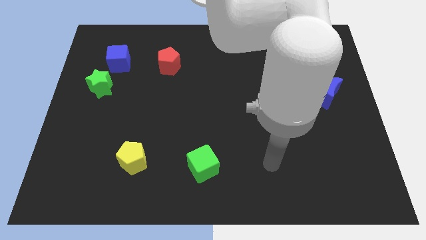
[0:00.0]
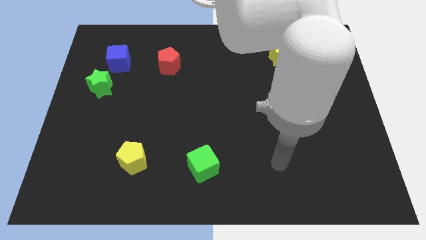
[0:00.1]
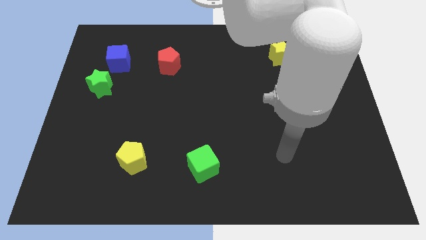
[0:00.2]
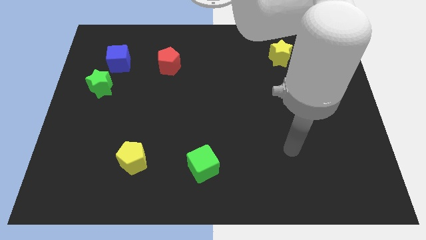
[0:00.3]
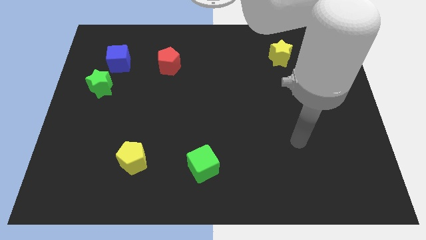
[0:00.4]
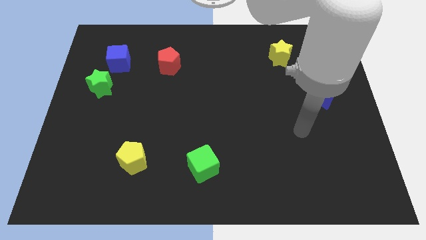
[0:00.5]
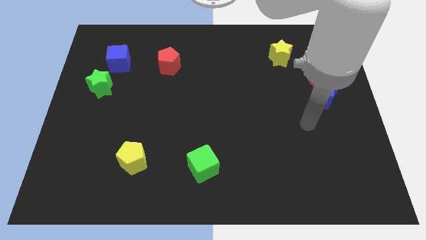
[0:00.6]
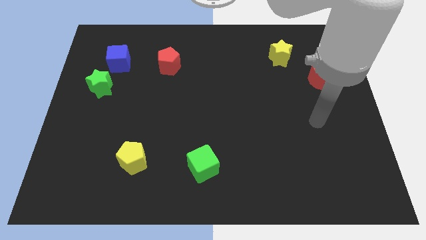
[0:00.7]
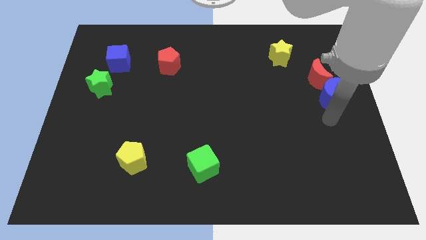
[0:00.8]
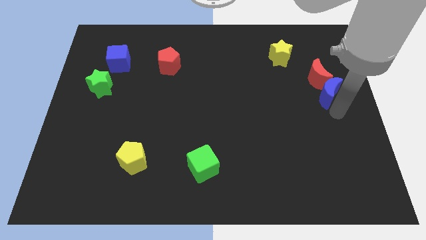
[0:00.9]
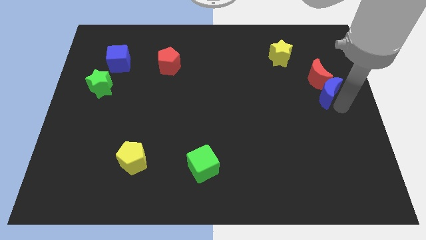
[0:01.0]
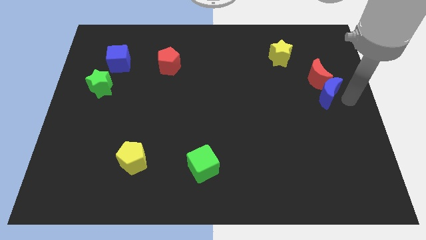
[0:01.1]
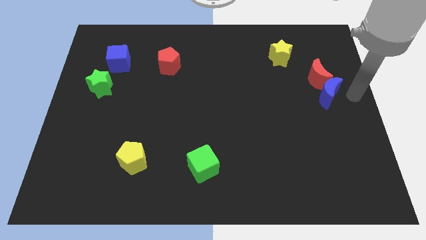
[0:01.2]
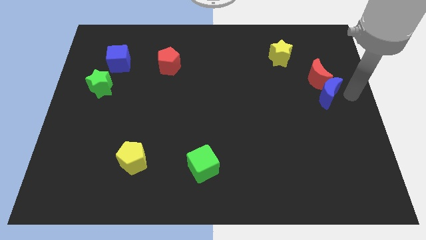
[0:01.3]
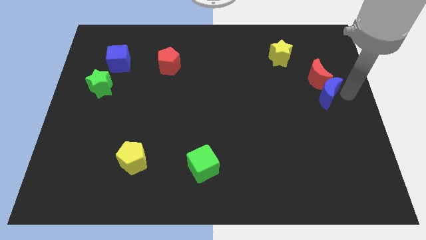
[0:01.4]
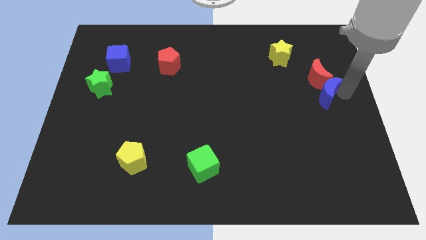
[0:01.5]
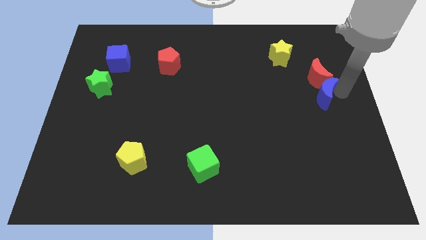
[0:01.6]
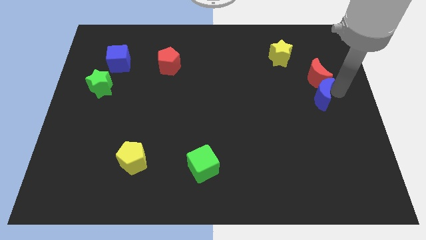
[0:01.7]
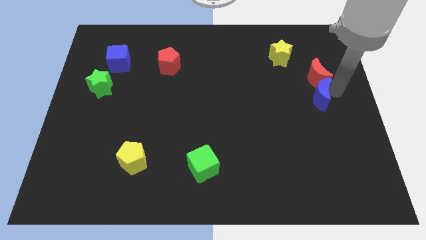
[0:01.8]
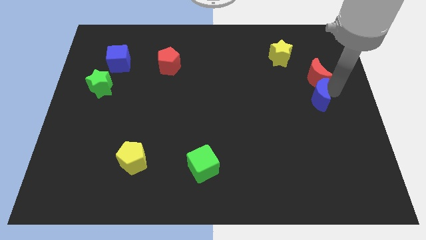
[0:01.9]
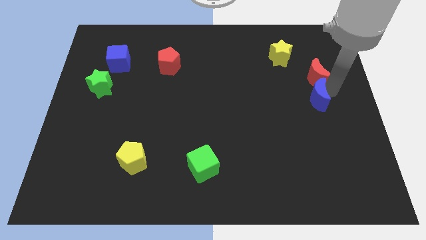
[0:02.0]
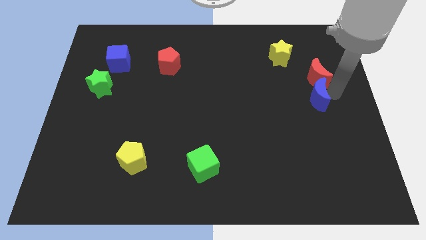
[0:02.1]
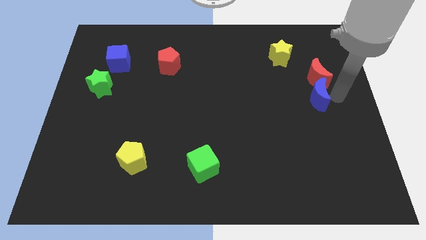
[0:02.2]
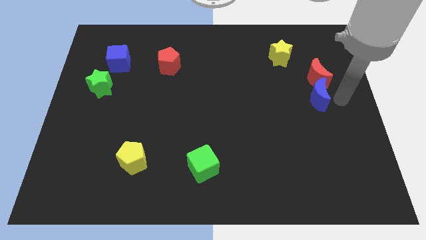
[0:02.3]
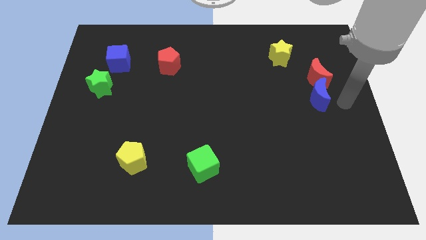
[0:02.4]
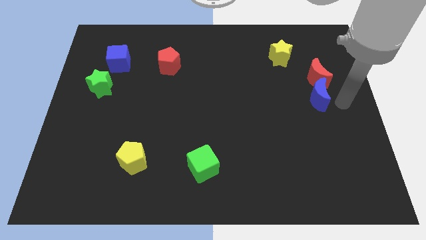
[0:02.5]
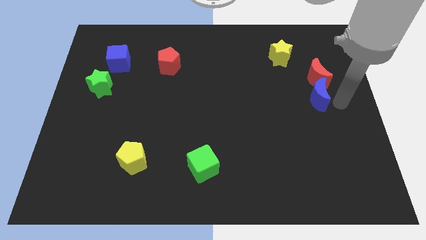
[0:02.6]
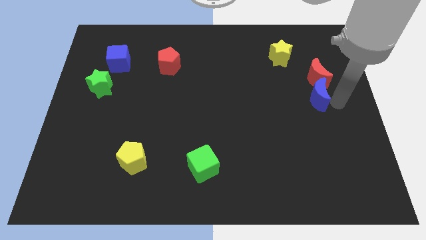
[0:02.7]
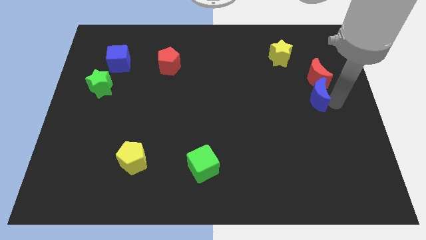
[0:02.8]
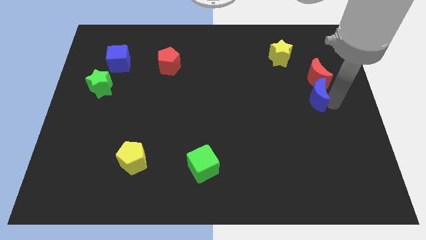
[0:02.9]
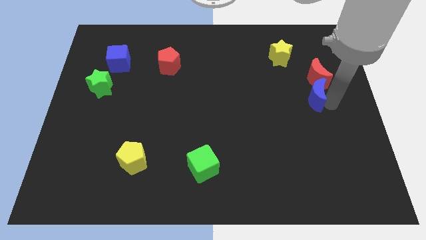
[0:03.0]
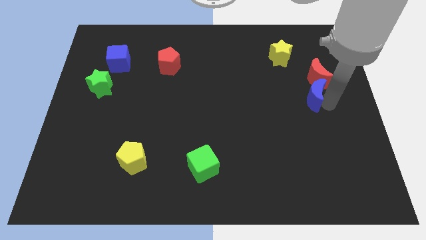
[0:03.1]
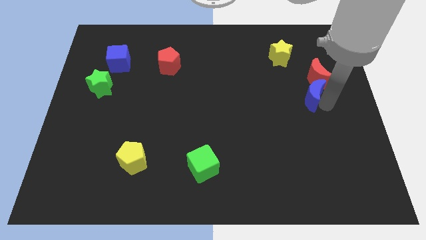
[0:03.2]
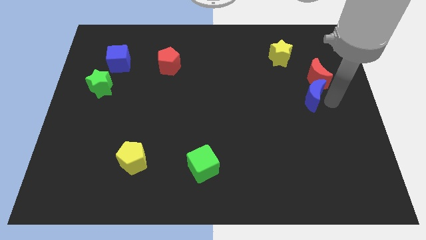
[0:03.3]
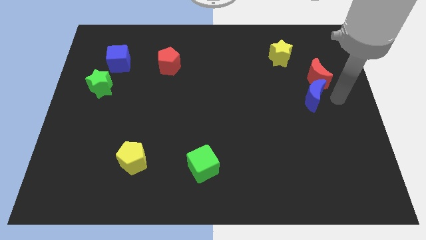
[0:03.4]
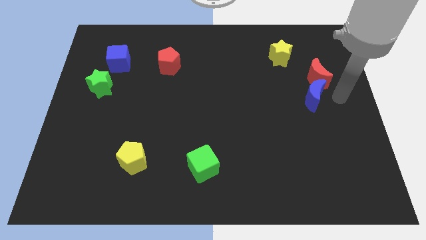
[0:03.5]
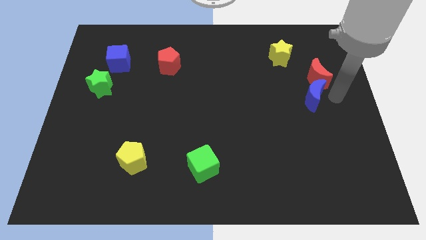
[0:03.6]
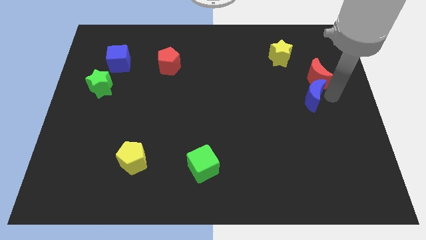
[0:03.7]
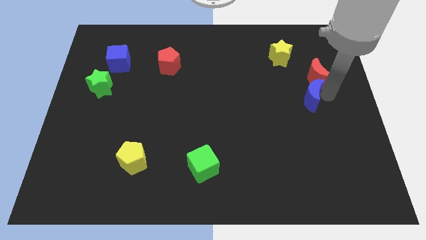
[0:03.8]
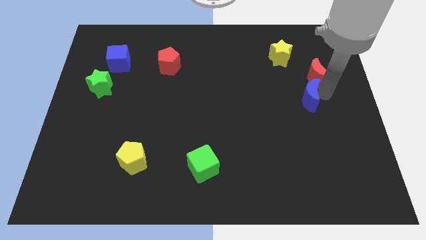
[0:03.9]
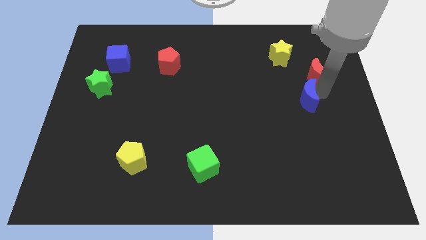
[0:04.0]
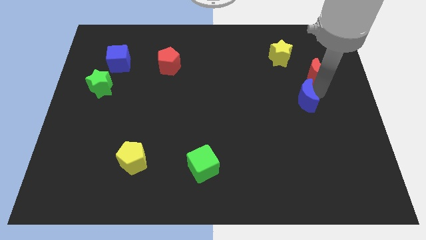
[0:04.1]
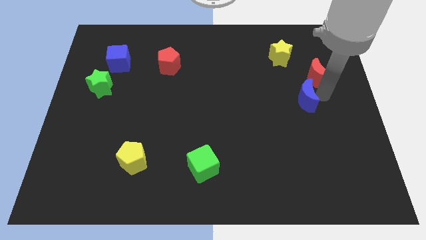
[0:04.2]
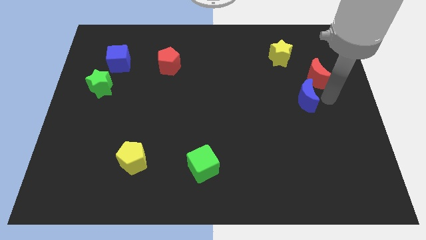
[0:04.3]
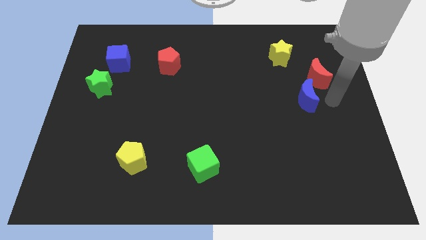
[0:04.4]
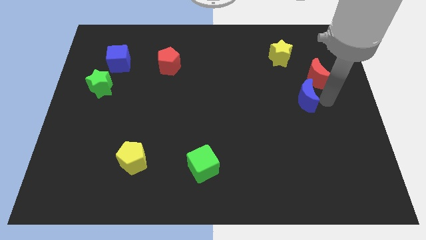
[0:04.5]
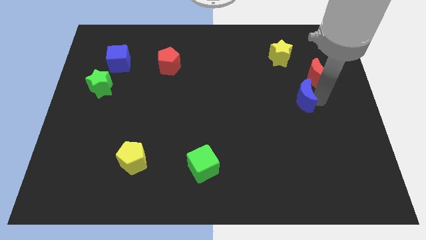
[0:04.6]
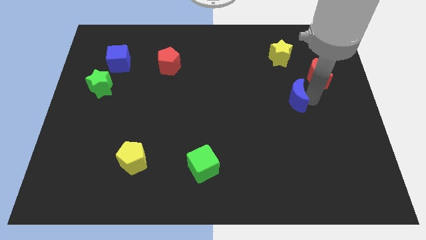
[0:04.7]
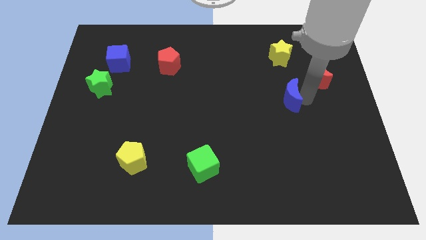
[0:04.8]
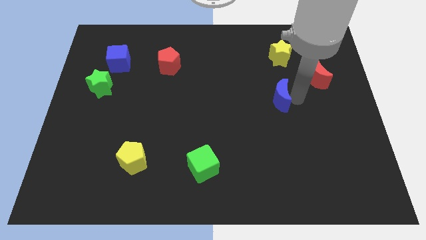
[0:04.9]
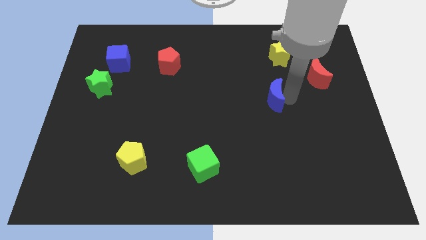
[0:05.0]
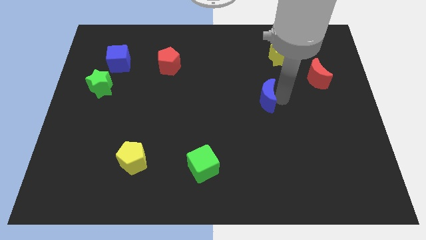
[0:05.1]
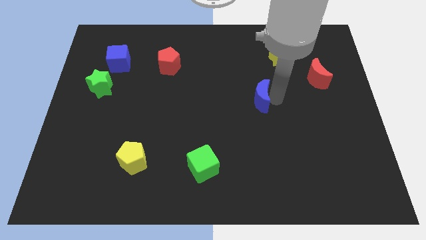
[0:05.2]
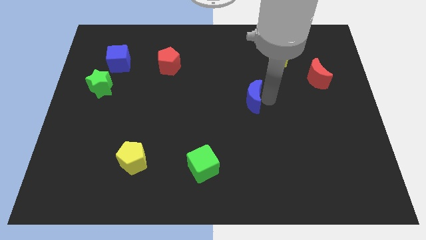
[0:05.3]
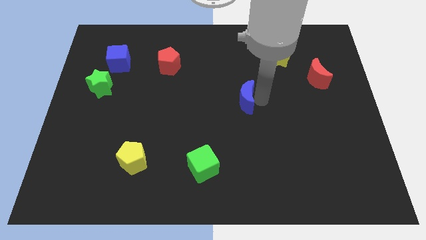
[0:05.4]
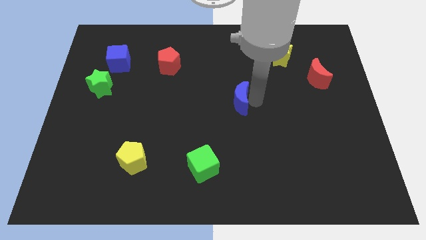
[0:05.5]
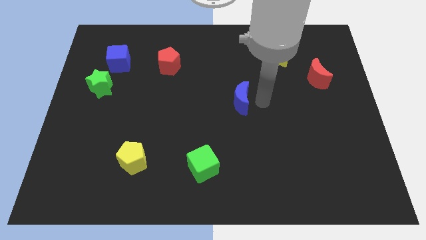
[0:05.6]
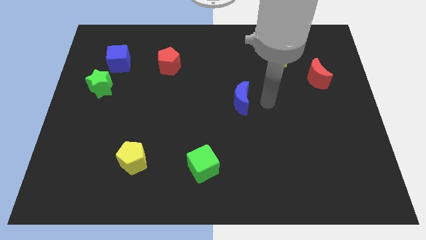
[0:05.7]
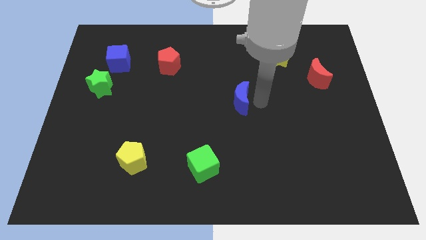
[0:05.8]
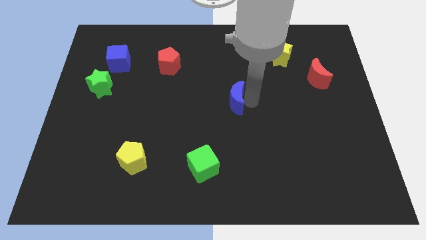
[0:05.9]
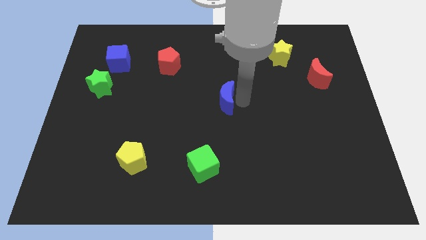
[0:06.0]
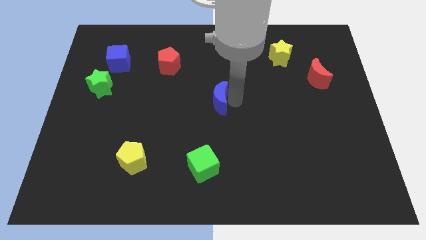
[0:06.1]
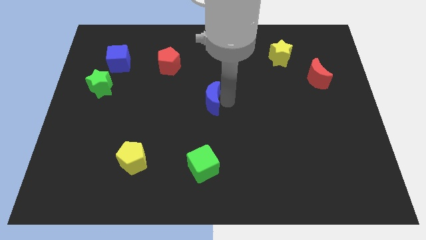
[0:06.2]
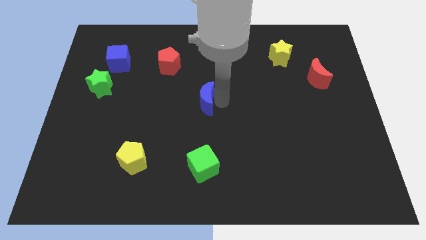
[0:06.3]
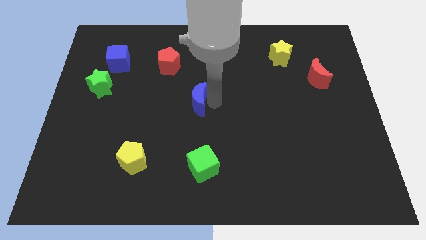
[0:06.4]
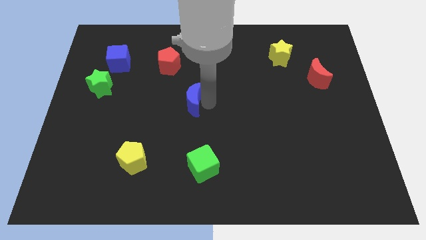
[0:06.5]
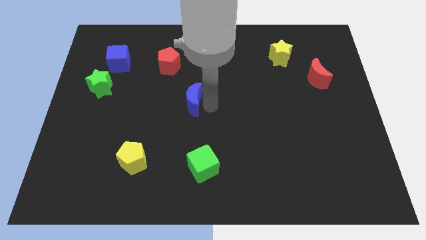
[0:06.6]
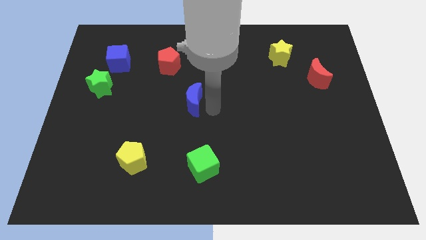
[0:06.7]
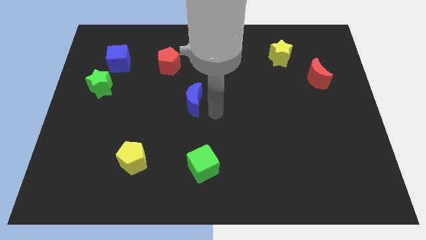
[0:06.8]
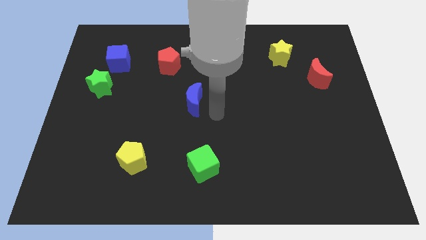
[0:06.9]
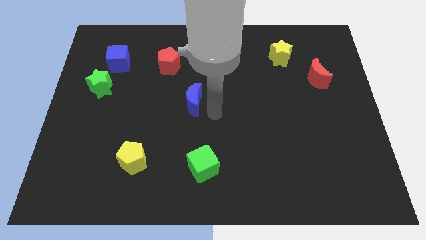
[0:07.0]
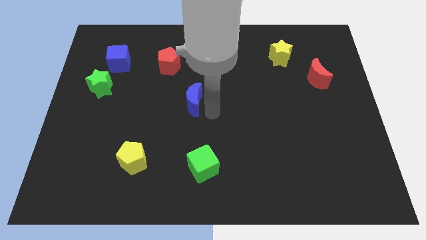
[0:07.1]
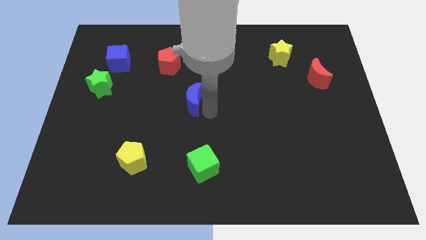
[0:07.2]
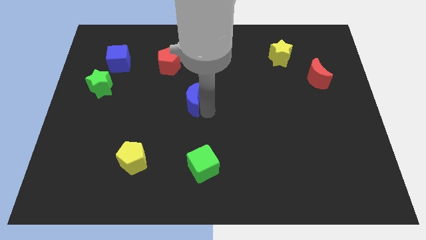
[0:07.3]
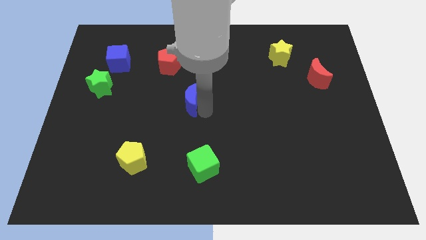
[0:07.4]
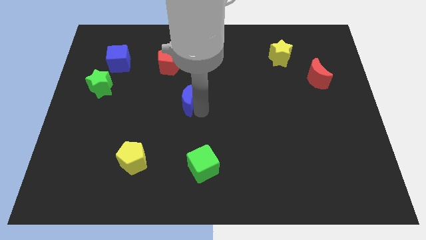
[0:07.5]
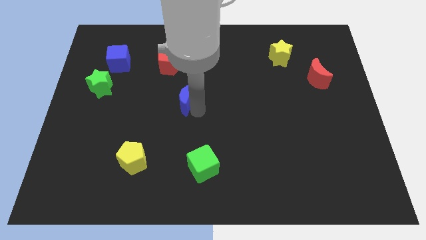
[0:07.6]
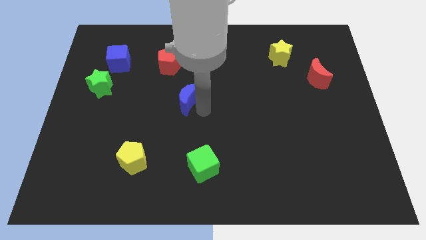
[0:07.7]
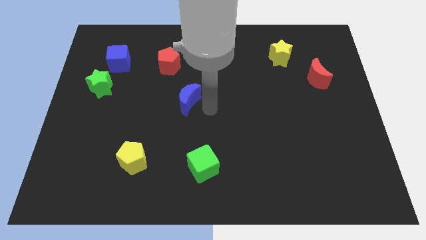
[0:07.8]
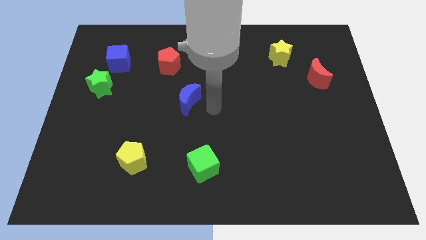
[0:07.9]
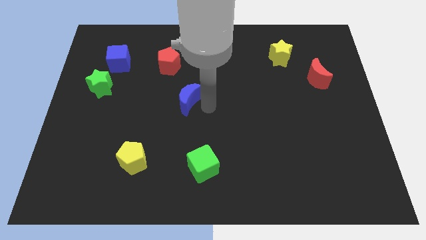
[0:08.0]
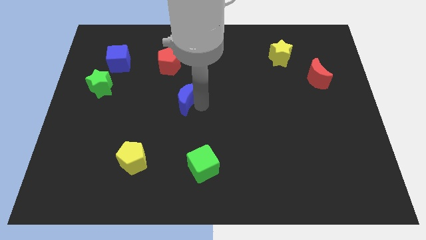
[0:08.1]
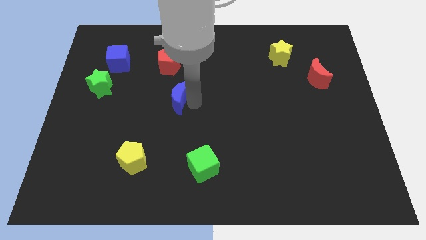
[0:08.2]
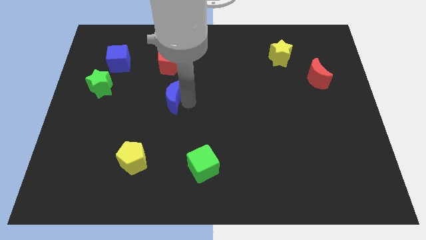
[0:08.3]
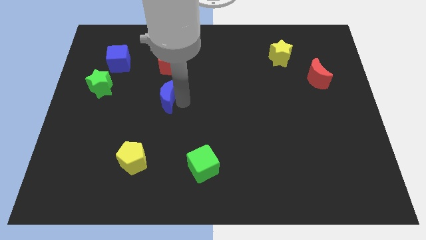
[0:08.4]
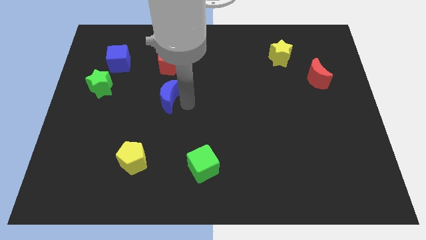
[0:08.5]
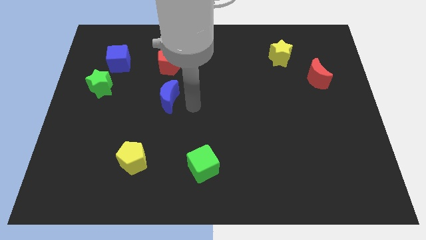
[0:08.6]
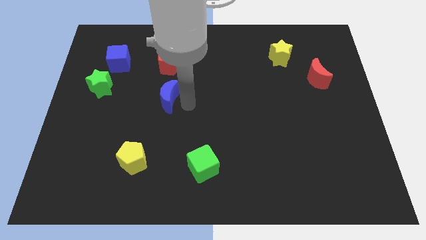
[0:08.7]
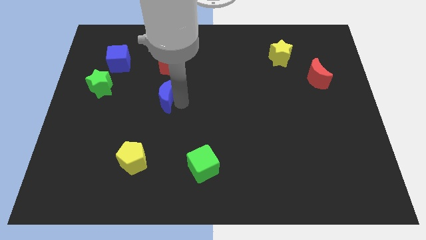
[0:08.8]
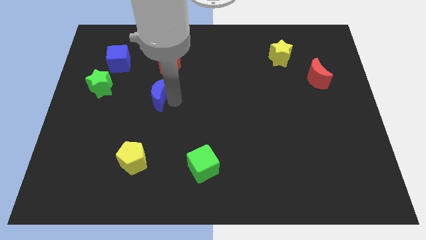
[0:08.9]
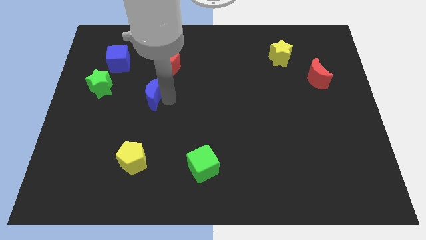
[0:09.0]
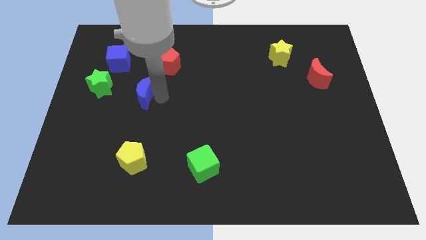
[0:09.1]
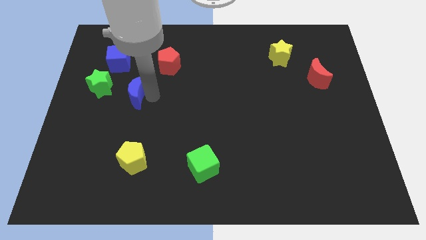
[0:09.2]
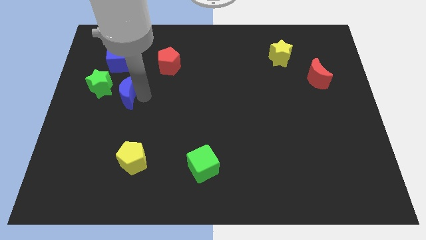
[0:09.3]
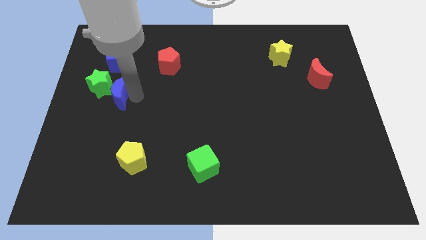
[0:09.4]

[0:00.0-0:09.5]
move the blue moon to the green star
